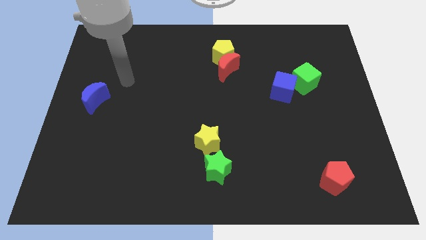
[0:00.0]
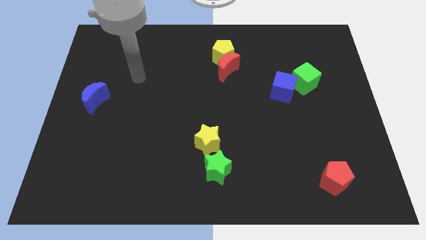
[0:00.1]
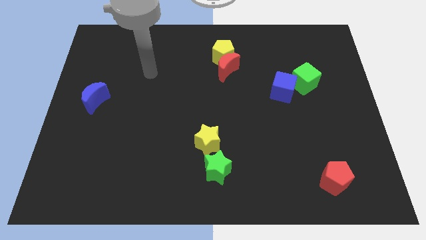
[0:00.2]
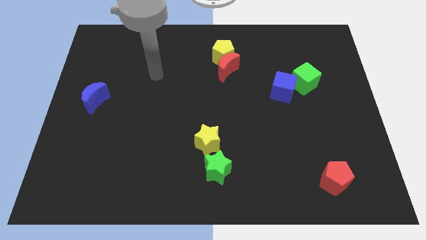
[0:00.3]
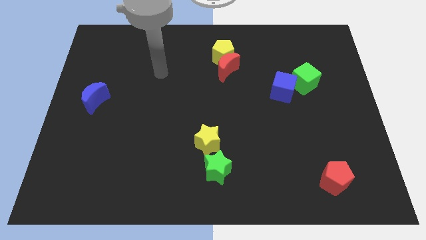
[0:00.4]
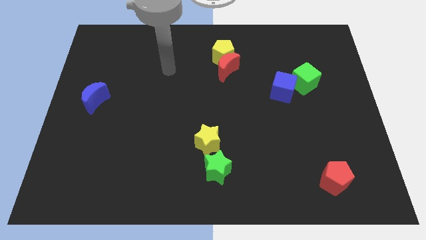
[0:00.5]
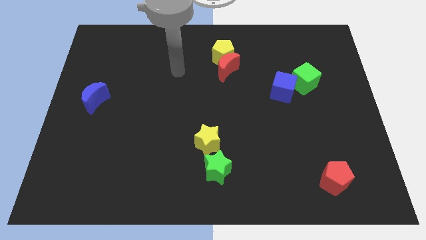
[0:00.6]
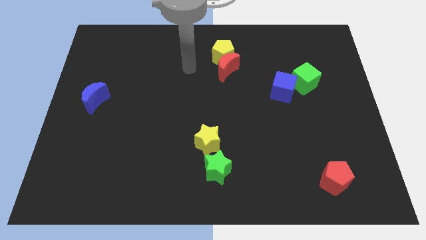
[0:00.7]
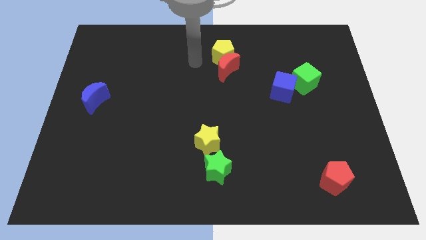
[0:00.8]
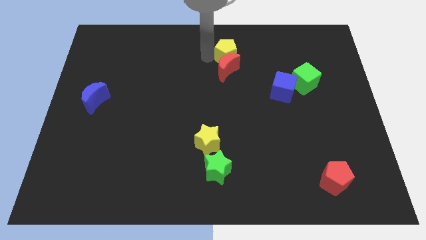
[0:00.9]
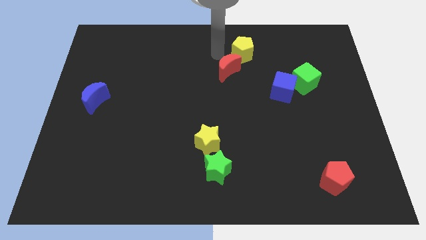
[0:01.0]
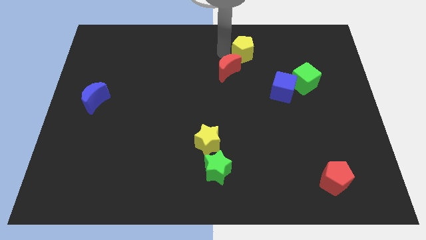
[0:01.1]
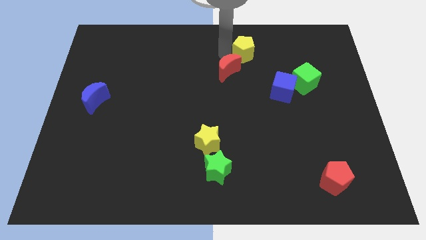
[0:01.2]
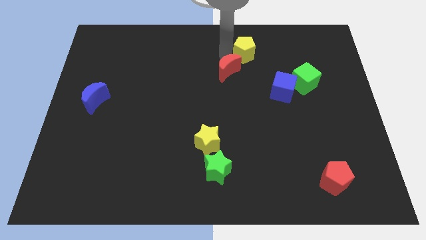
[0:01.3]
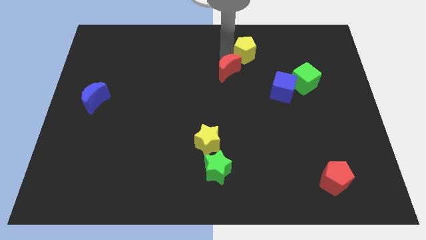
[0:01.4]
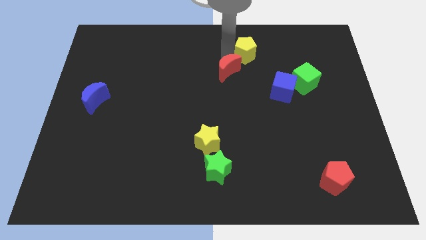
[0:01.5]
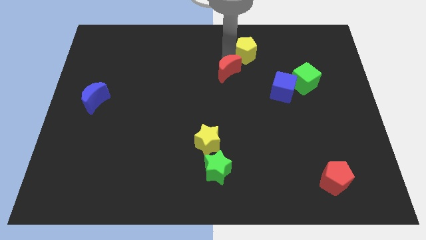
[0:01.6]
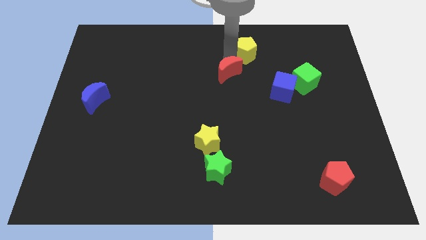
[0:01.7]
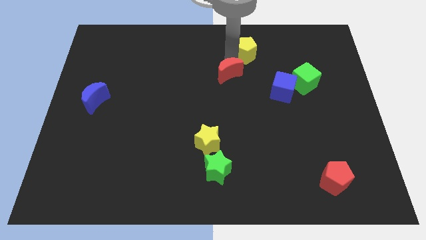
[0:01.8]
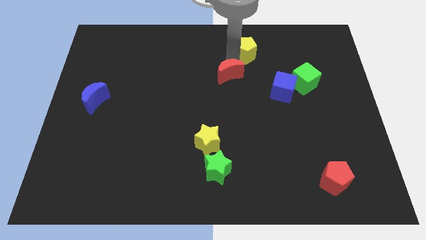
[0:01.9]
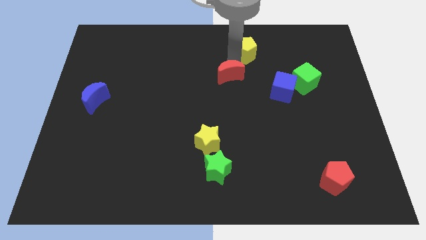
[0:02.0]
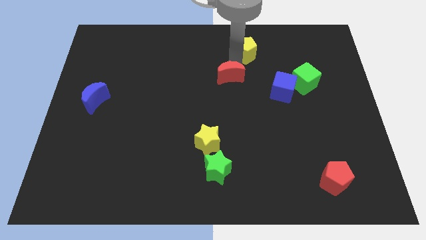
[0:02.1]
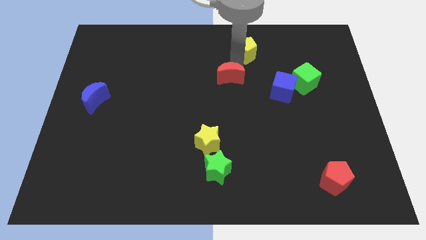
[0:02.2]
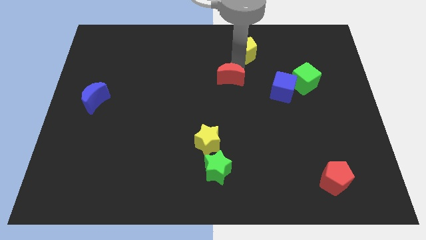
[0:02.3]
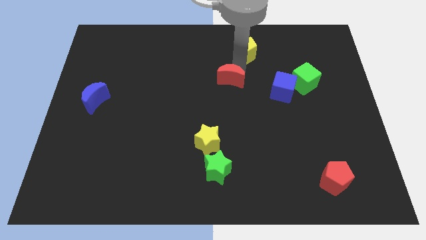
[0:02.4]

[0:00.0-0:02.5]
move the red moon away from the yellow pentagon

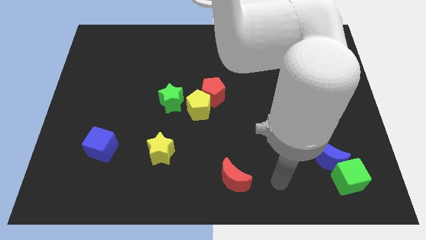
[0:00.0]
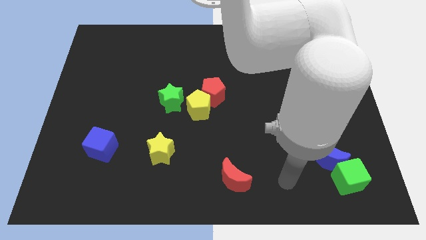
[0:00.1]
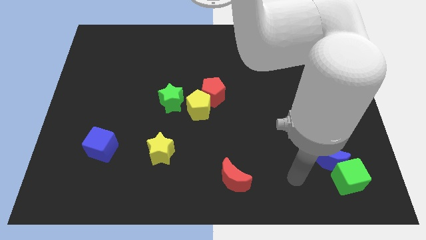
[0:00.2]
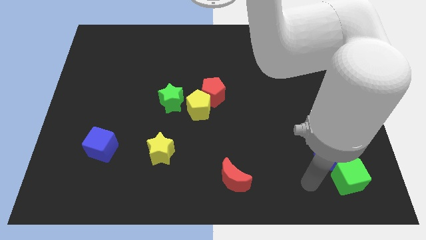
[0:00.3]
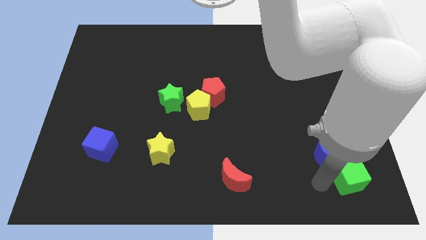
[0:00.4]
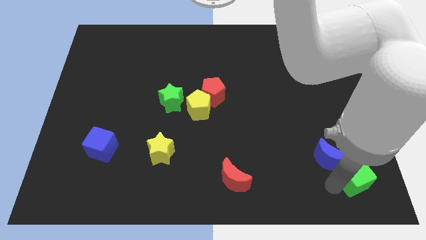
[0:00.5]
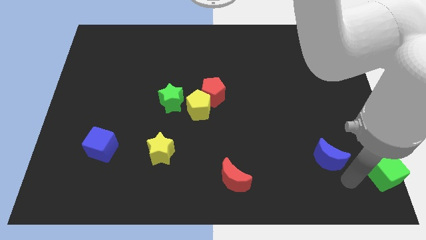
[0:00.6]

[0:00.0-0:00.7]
move the blue moon away from the green cube

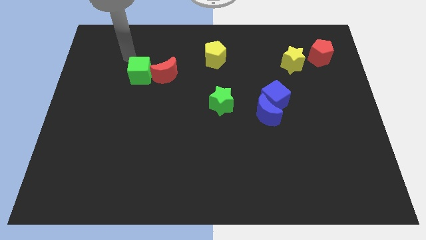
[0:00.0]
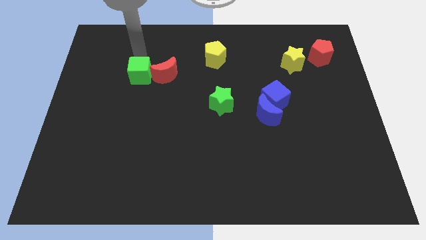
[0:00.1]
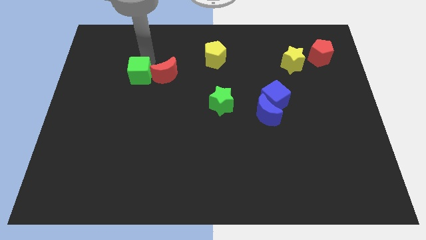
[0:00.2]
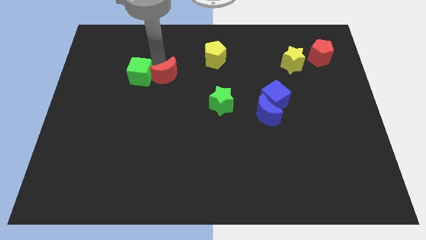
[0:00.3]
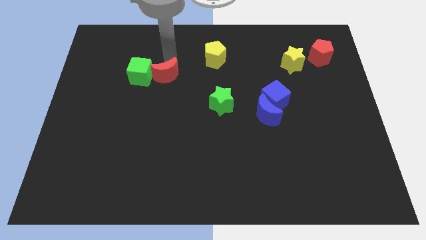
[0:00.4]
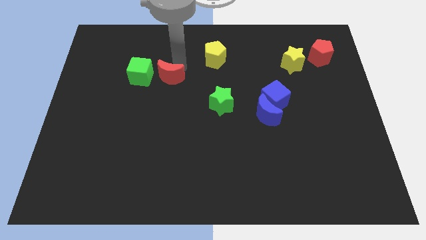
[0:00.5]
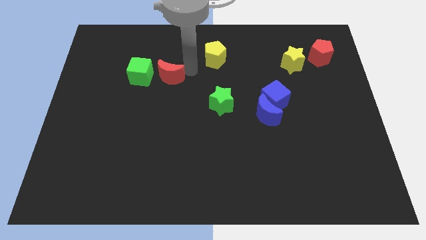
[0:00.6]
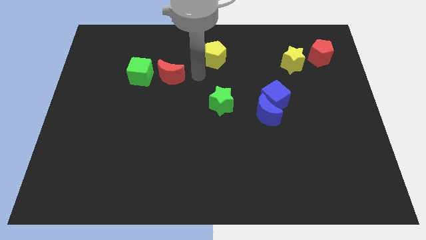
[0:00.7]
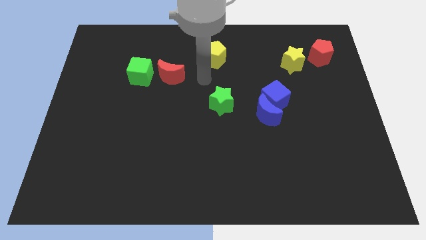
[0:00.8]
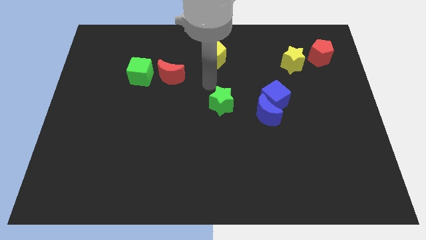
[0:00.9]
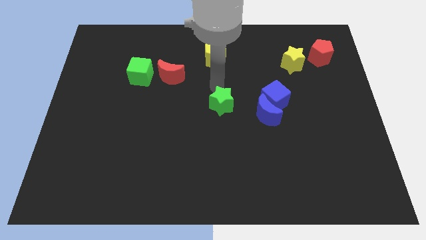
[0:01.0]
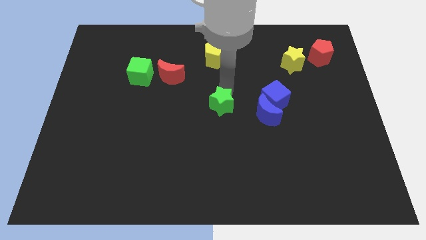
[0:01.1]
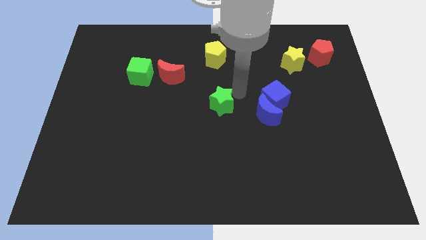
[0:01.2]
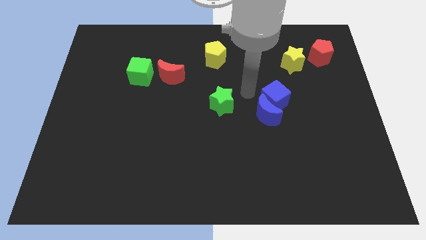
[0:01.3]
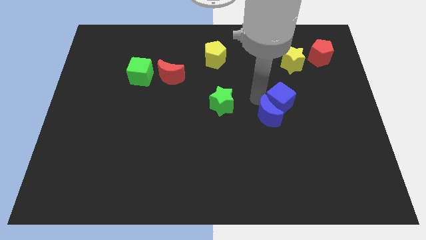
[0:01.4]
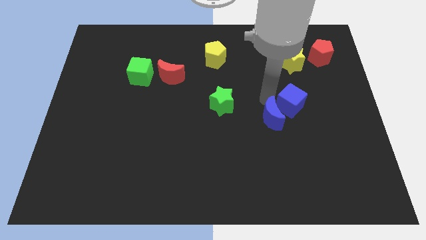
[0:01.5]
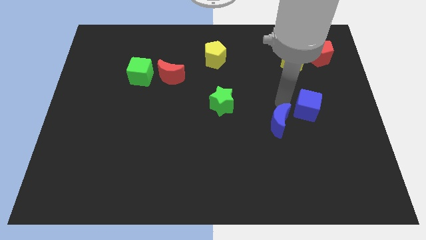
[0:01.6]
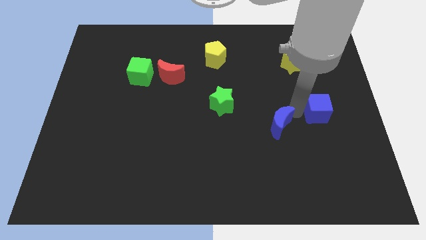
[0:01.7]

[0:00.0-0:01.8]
separate the blue moon from the blue cube

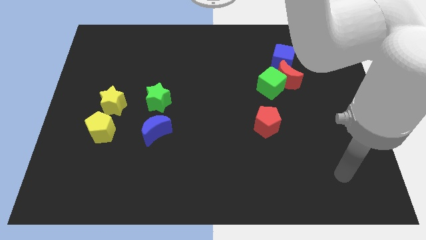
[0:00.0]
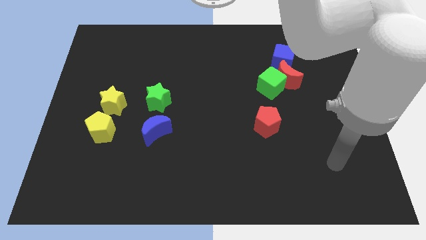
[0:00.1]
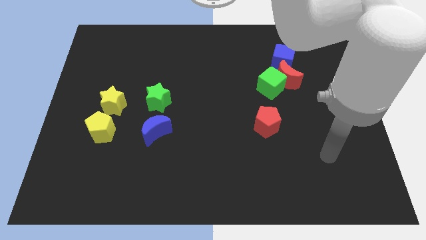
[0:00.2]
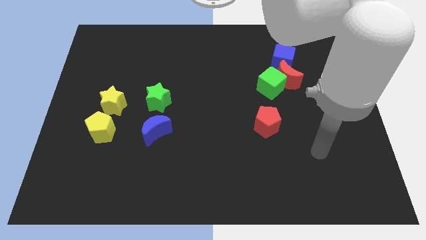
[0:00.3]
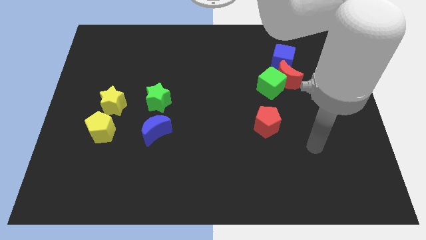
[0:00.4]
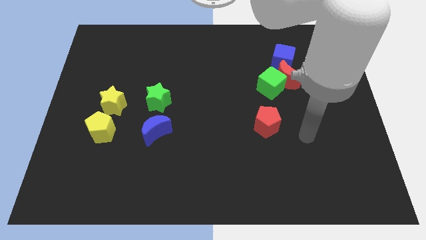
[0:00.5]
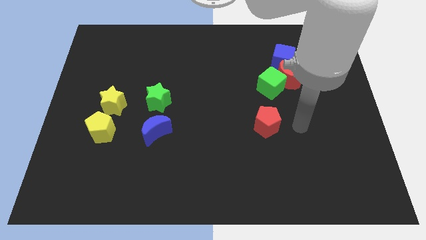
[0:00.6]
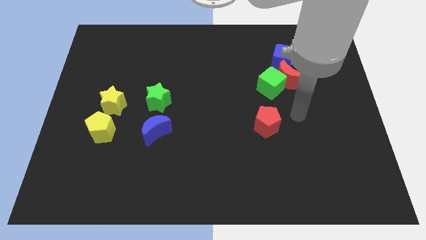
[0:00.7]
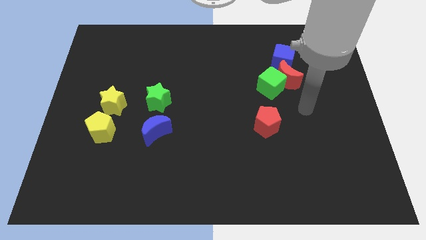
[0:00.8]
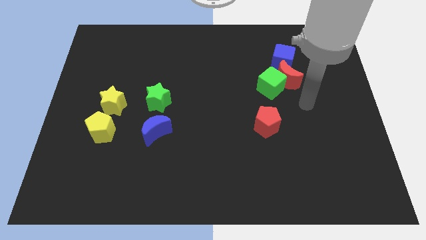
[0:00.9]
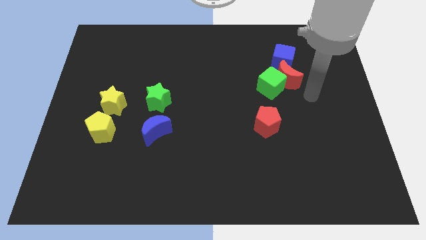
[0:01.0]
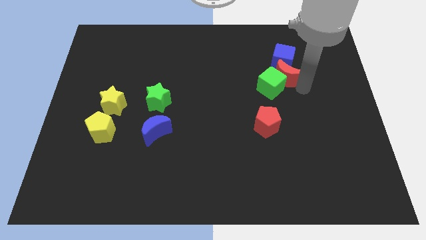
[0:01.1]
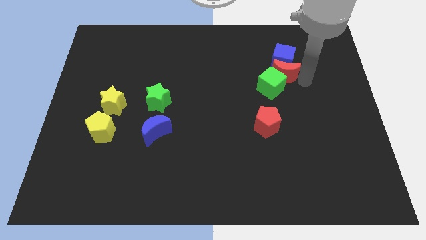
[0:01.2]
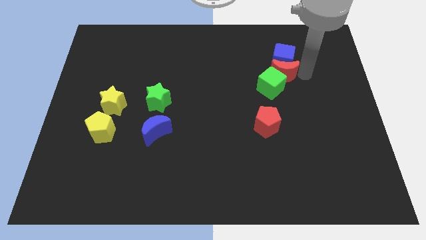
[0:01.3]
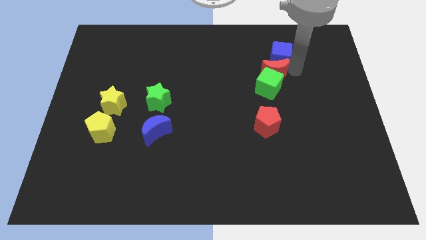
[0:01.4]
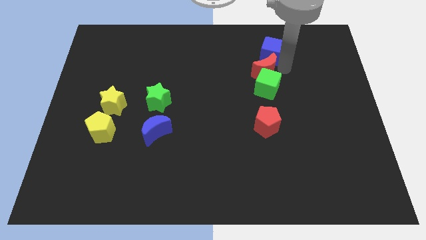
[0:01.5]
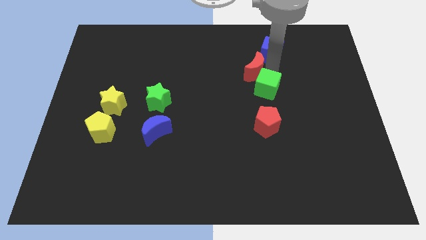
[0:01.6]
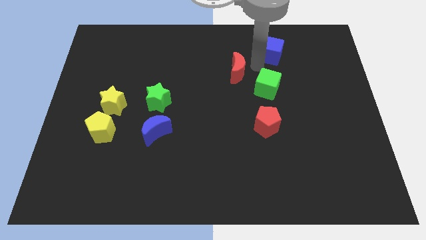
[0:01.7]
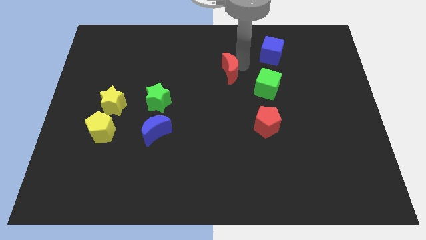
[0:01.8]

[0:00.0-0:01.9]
move the red moon away from the green cube and blue cube

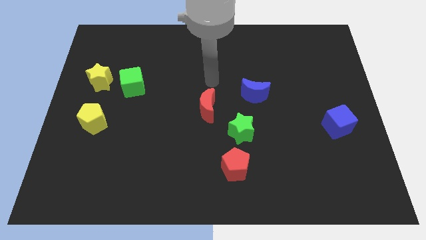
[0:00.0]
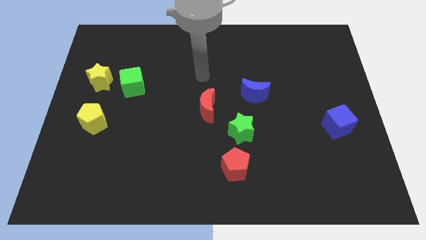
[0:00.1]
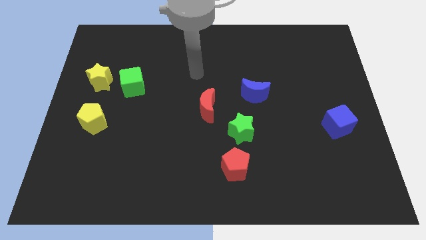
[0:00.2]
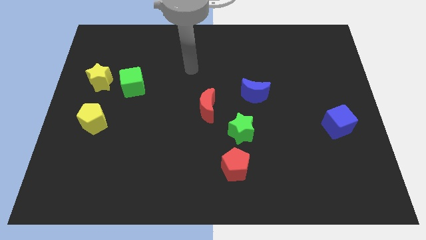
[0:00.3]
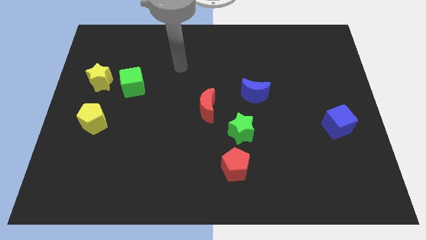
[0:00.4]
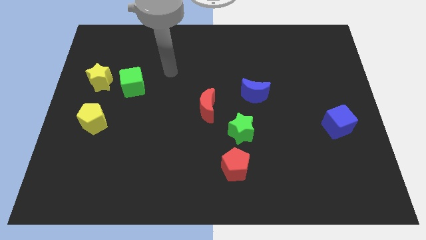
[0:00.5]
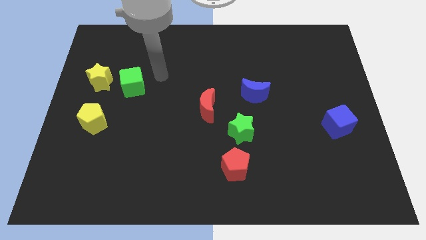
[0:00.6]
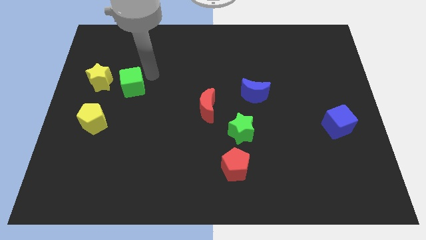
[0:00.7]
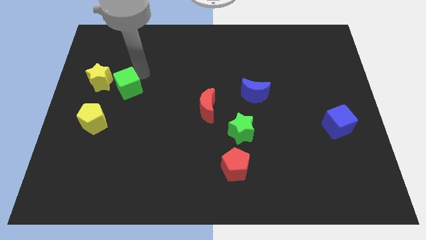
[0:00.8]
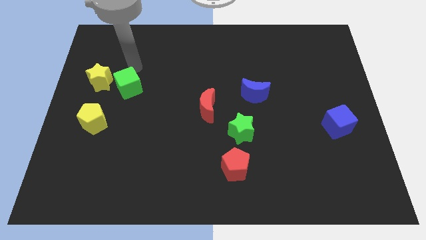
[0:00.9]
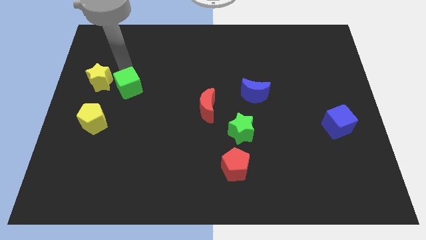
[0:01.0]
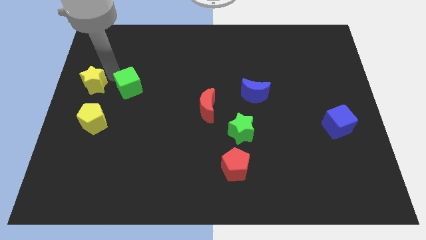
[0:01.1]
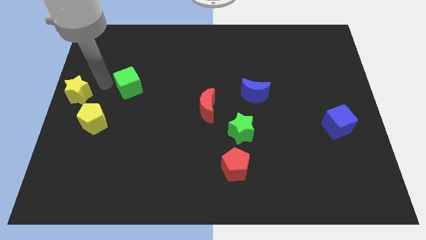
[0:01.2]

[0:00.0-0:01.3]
pull the green cube apart from the yellow star

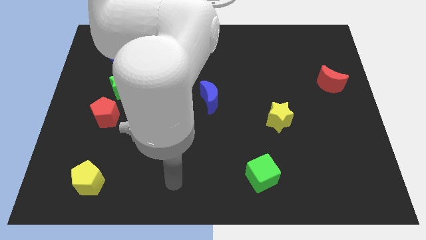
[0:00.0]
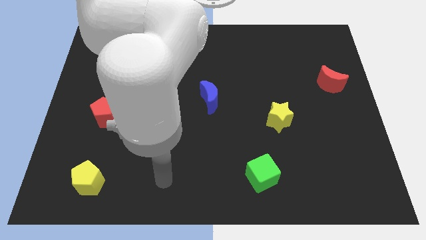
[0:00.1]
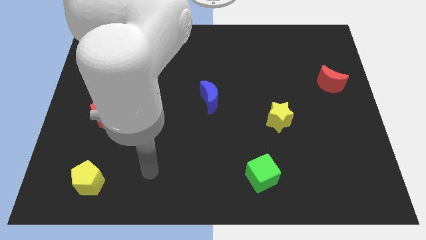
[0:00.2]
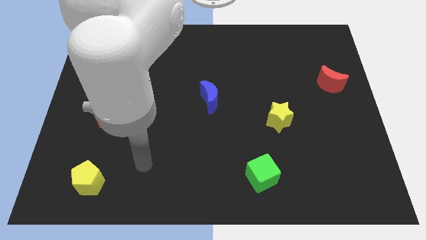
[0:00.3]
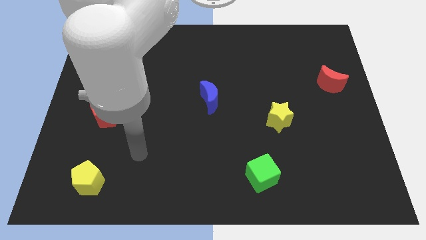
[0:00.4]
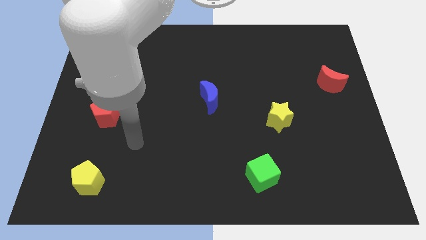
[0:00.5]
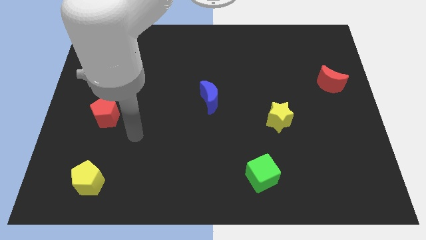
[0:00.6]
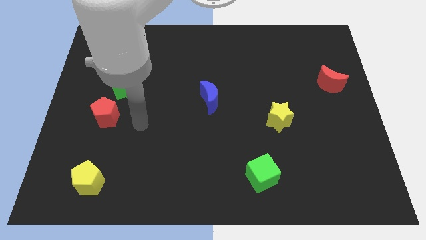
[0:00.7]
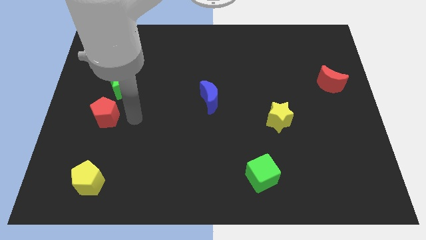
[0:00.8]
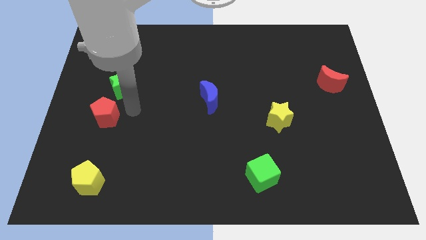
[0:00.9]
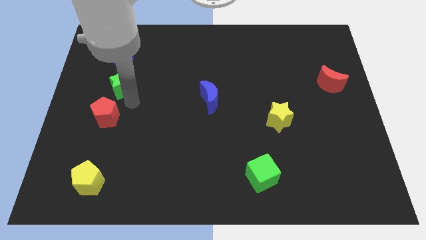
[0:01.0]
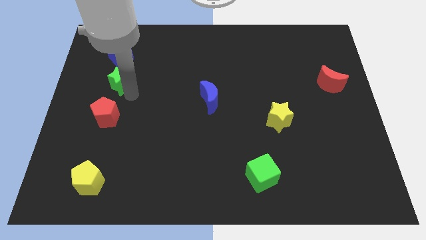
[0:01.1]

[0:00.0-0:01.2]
move the red pentagon away from the green star
